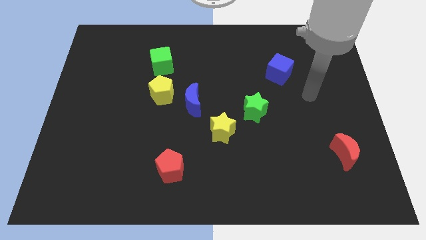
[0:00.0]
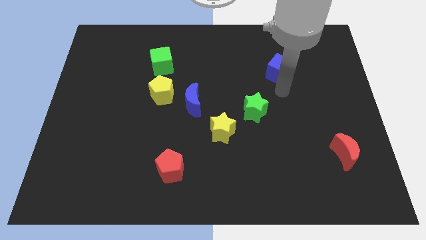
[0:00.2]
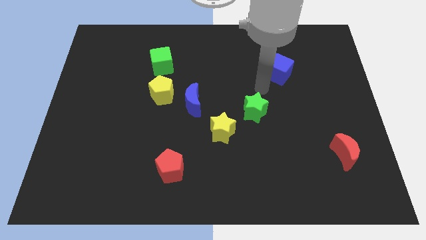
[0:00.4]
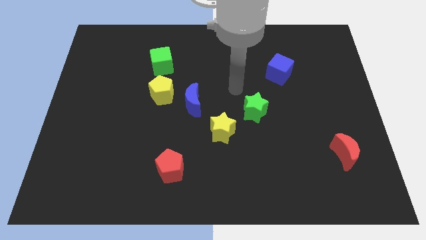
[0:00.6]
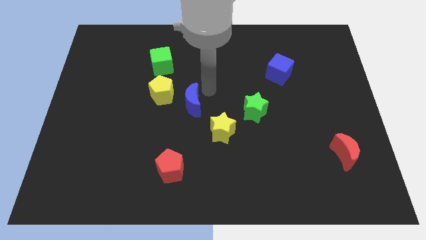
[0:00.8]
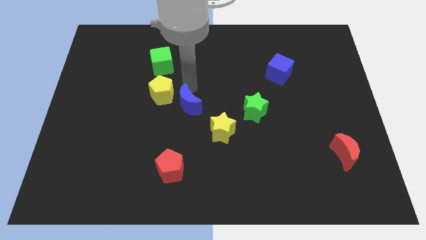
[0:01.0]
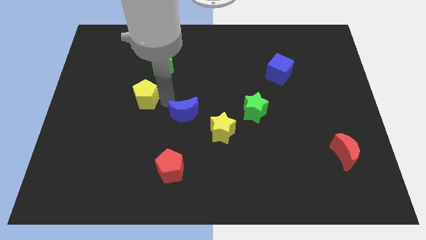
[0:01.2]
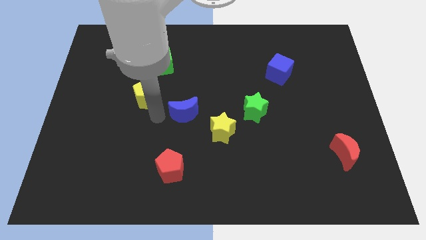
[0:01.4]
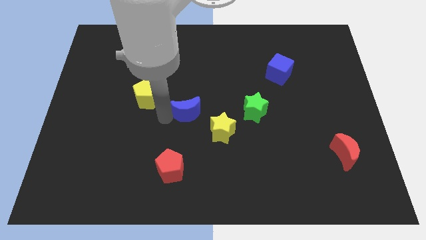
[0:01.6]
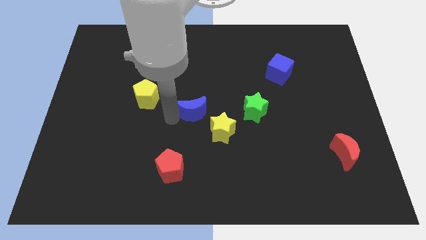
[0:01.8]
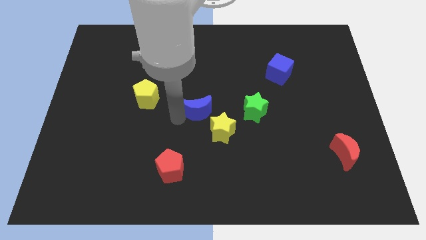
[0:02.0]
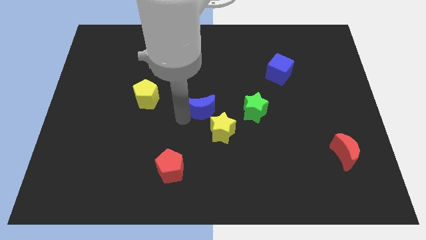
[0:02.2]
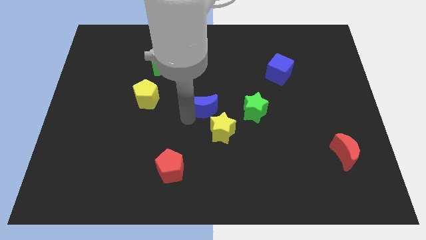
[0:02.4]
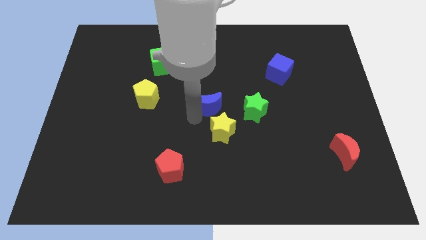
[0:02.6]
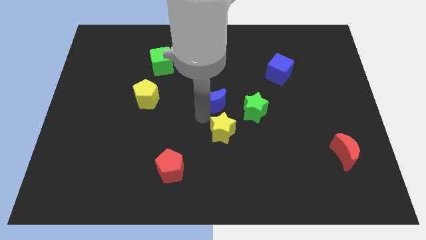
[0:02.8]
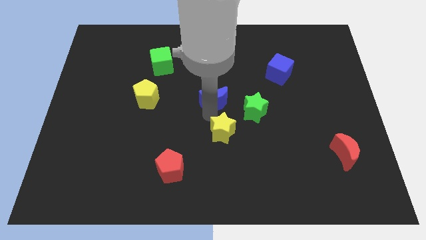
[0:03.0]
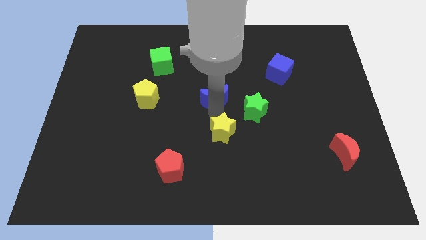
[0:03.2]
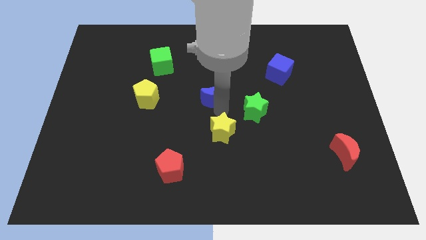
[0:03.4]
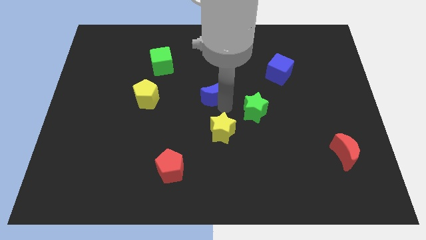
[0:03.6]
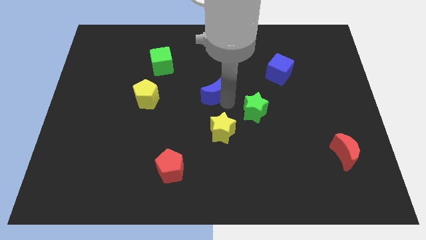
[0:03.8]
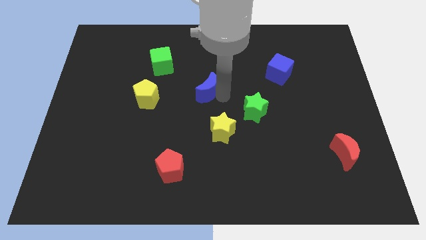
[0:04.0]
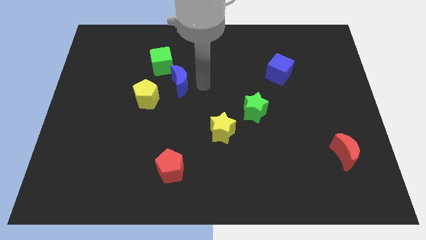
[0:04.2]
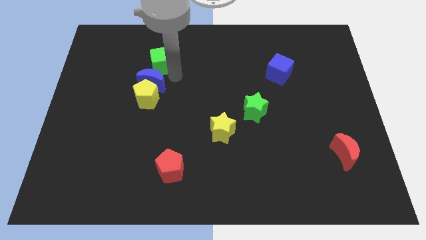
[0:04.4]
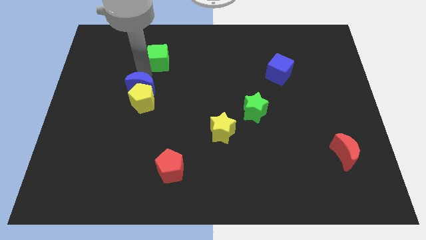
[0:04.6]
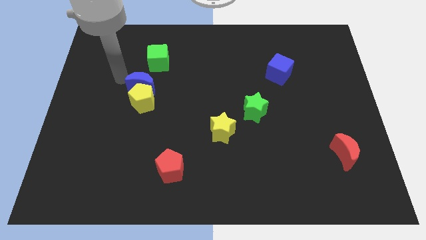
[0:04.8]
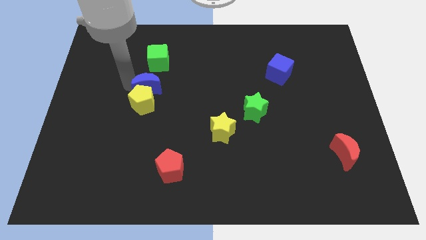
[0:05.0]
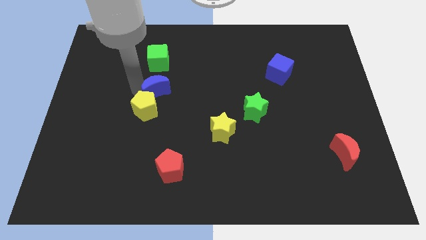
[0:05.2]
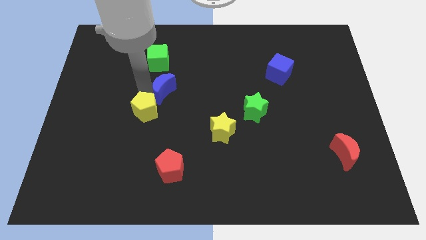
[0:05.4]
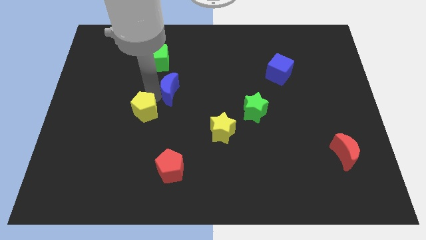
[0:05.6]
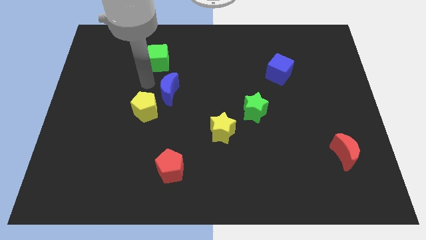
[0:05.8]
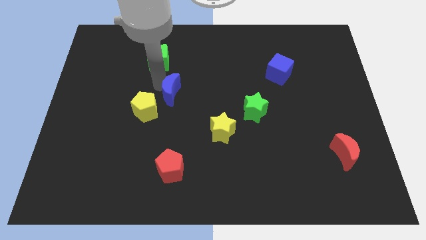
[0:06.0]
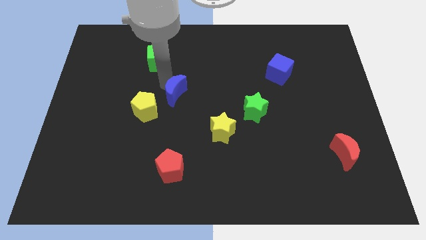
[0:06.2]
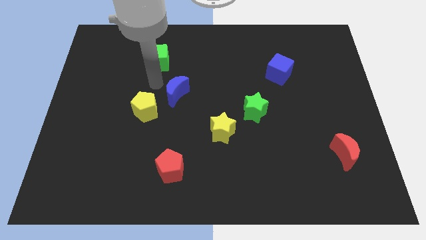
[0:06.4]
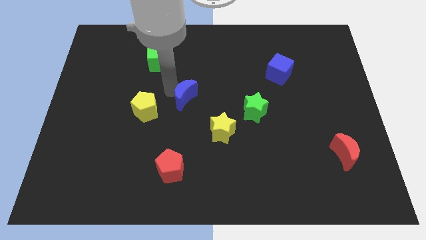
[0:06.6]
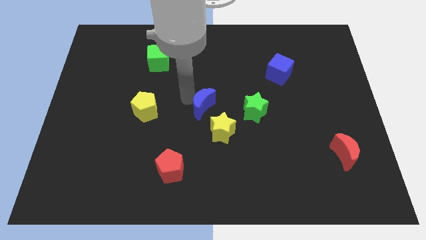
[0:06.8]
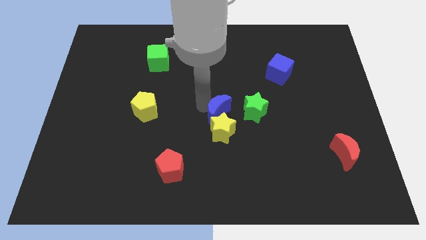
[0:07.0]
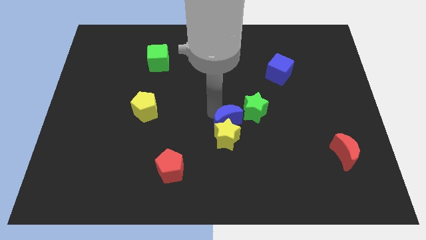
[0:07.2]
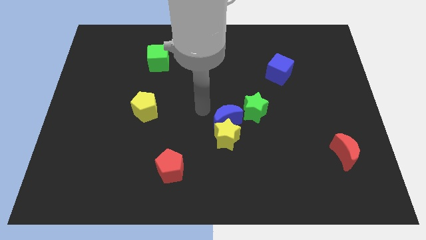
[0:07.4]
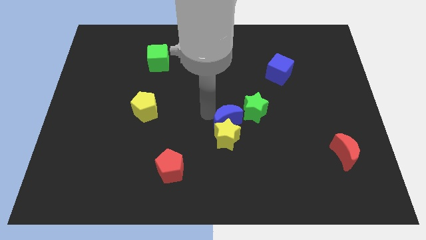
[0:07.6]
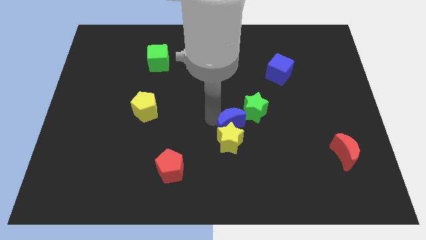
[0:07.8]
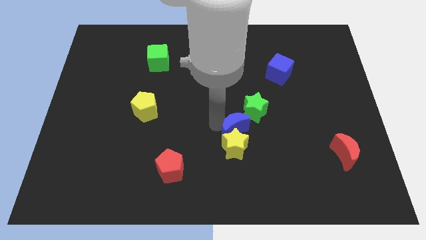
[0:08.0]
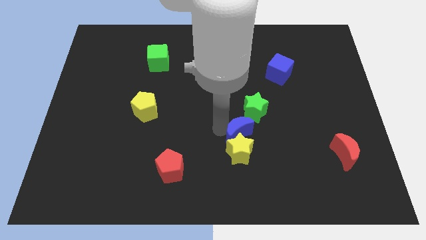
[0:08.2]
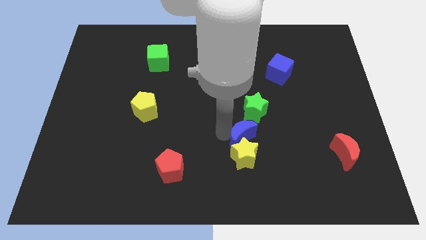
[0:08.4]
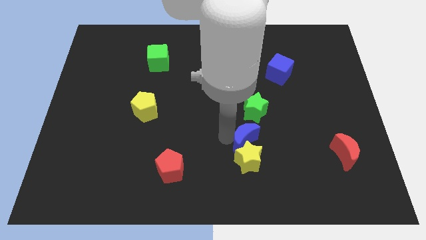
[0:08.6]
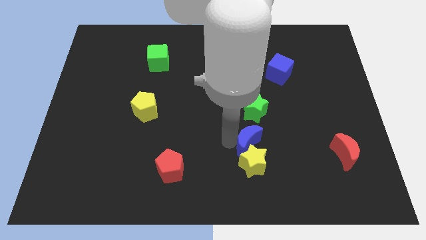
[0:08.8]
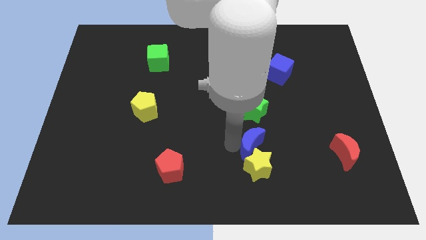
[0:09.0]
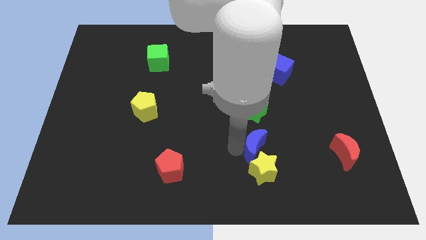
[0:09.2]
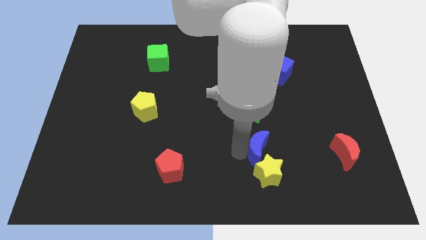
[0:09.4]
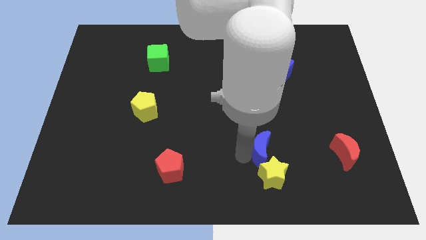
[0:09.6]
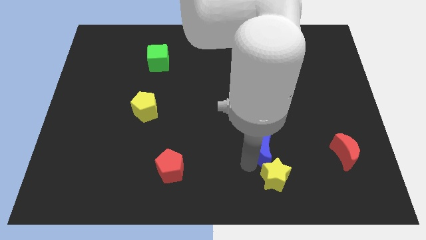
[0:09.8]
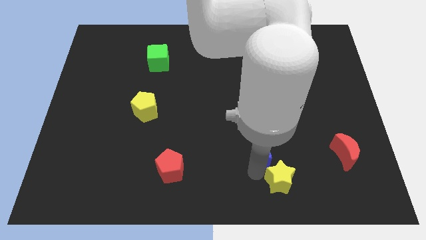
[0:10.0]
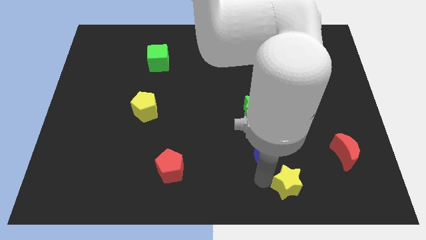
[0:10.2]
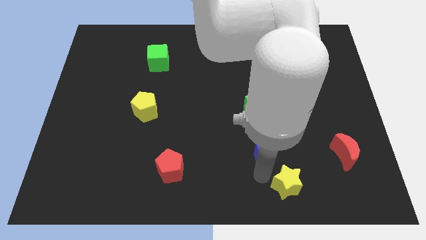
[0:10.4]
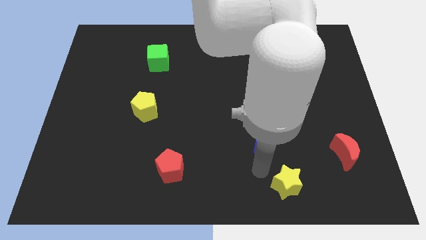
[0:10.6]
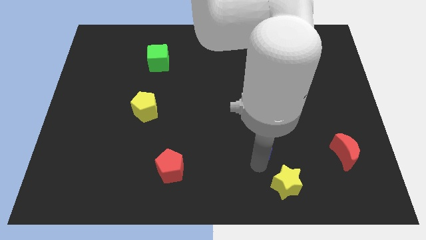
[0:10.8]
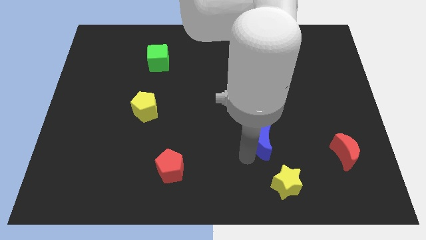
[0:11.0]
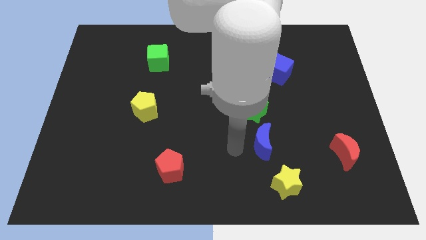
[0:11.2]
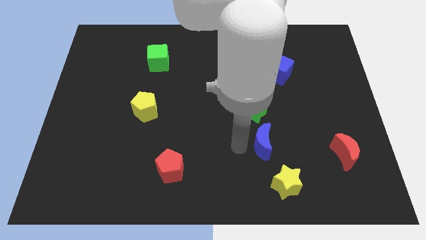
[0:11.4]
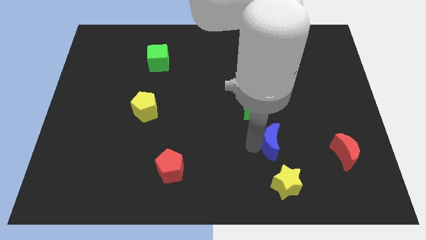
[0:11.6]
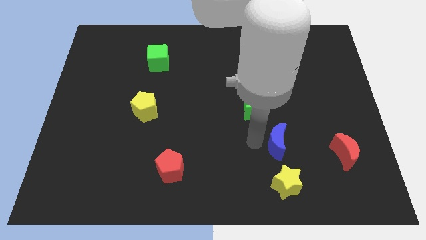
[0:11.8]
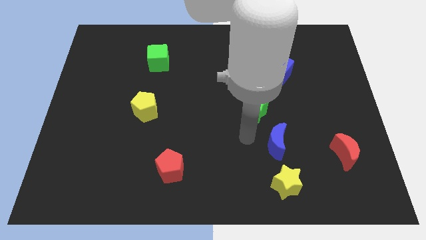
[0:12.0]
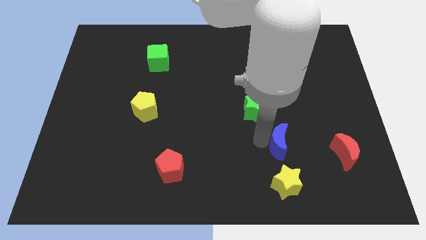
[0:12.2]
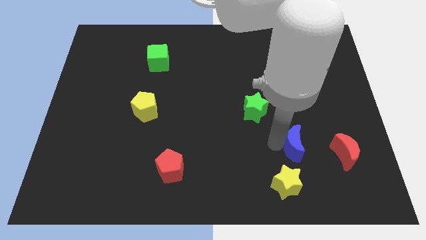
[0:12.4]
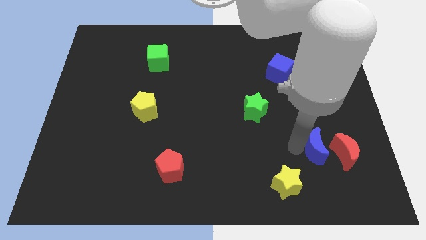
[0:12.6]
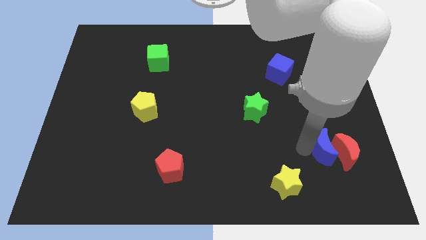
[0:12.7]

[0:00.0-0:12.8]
slide the blue moon to the red moon
